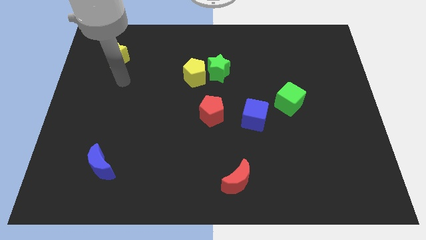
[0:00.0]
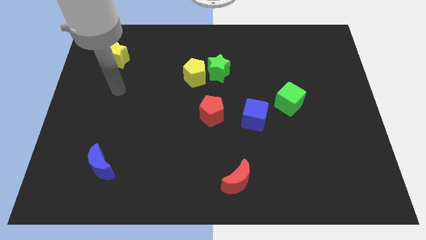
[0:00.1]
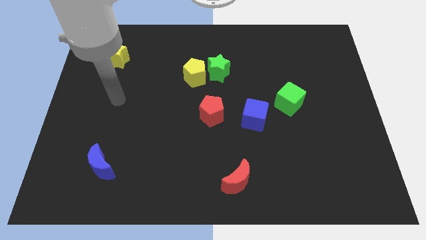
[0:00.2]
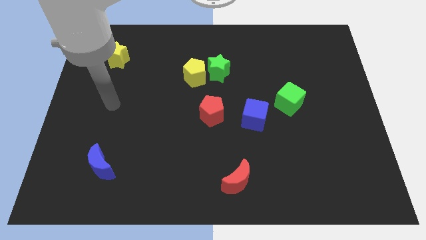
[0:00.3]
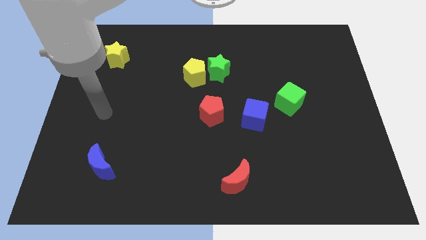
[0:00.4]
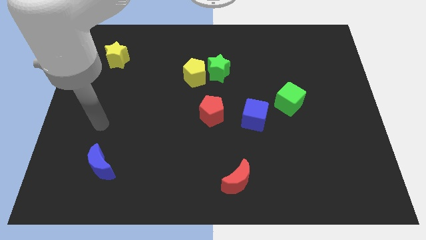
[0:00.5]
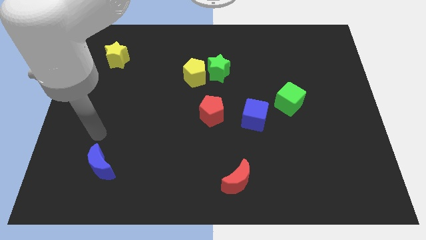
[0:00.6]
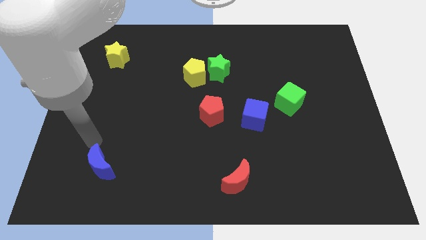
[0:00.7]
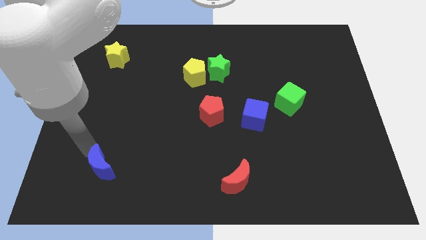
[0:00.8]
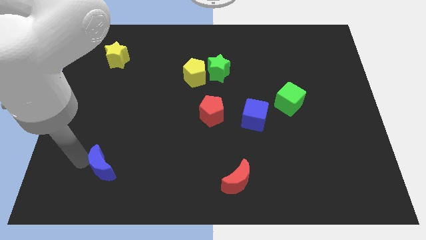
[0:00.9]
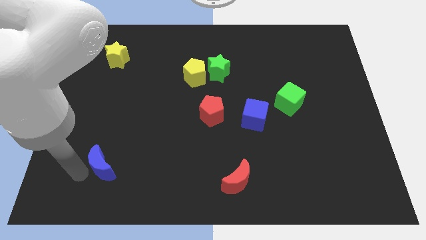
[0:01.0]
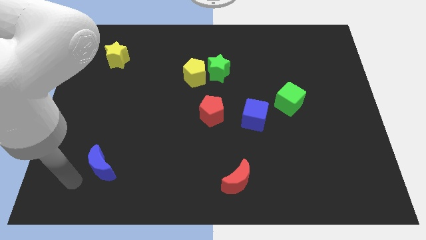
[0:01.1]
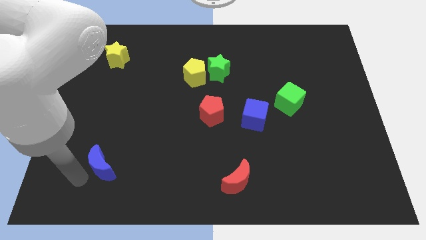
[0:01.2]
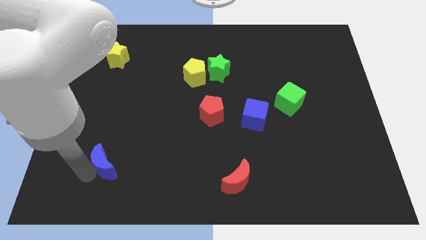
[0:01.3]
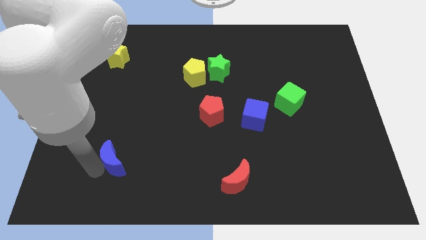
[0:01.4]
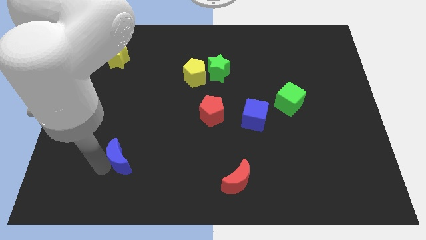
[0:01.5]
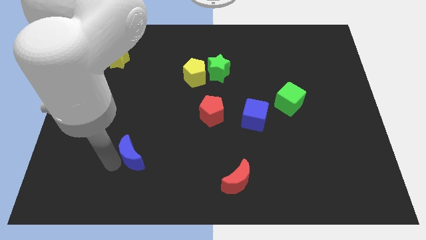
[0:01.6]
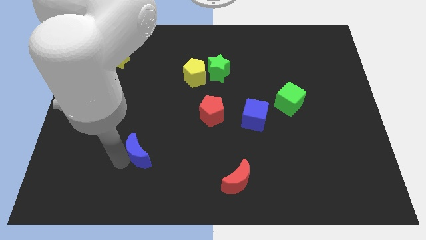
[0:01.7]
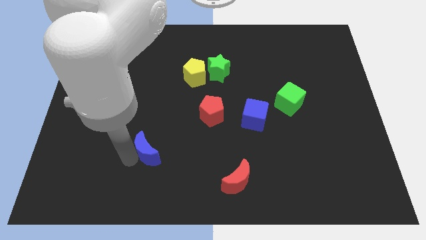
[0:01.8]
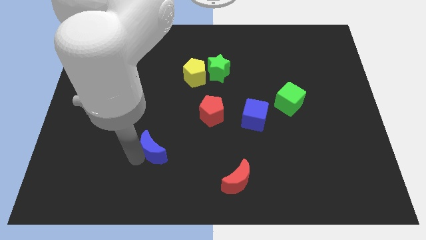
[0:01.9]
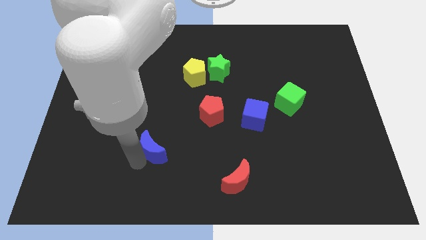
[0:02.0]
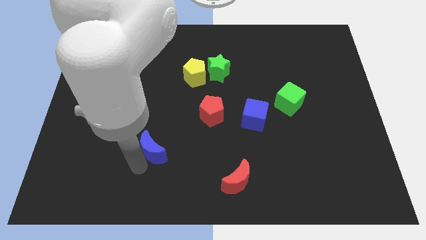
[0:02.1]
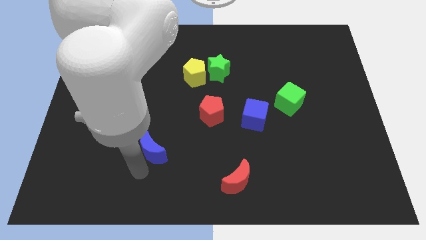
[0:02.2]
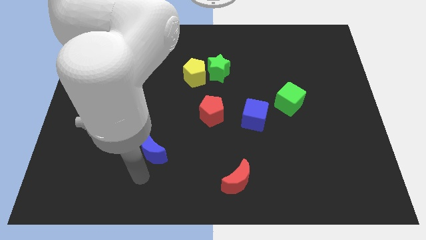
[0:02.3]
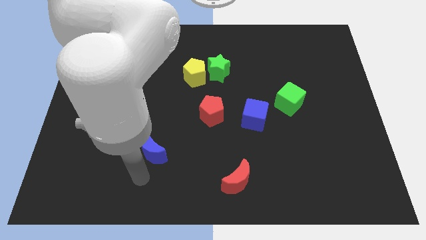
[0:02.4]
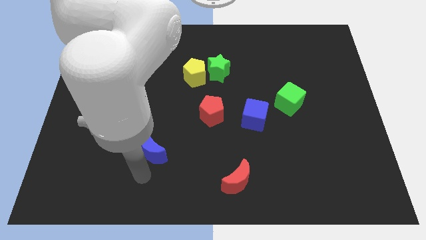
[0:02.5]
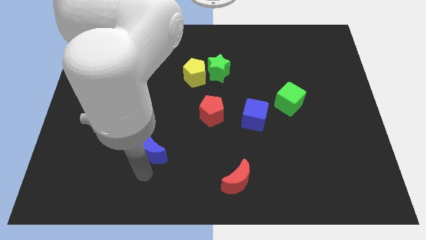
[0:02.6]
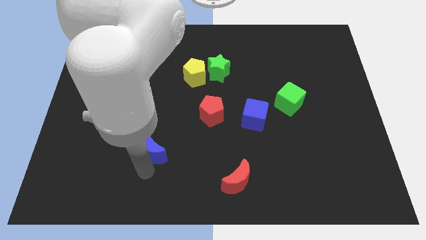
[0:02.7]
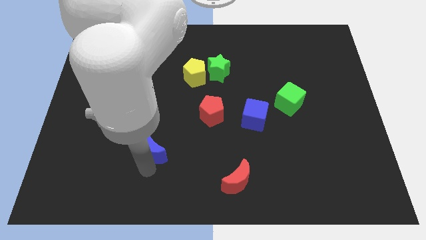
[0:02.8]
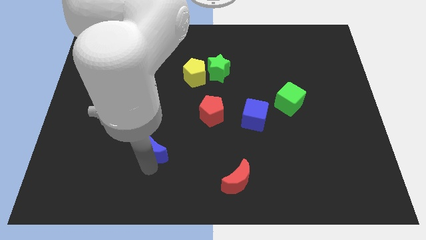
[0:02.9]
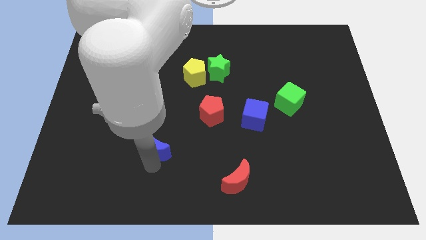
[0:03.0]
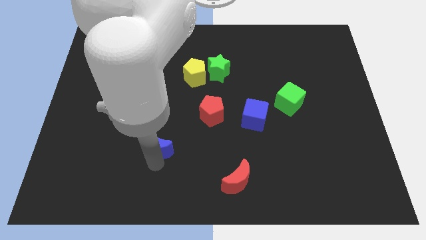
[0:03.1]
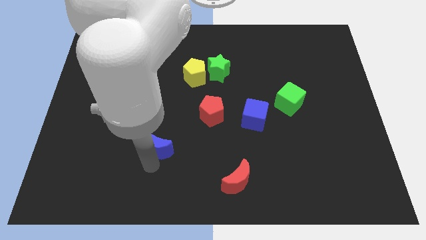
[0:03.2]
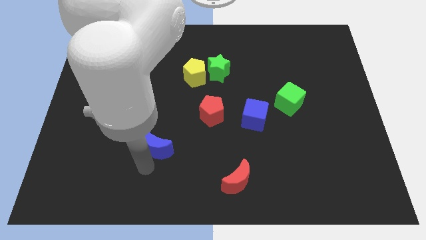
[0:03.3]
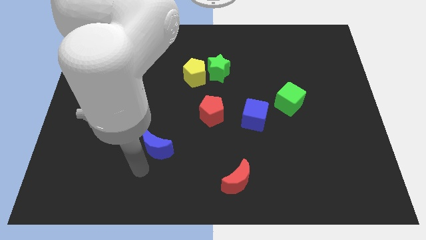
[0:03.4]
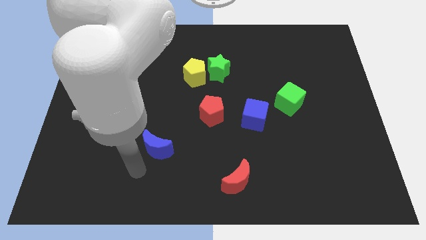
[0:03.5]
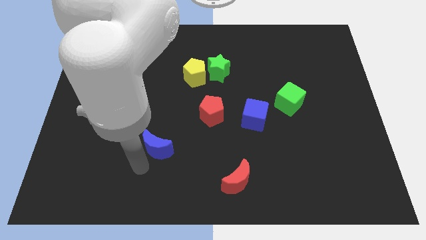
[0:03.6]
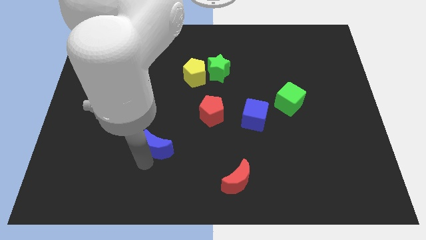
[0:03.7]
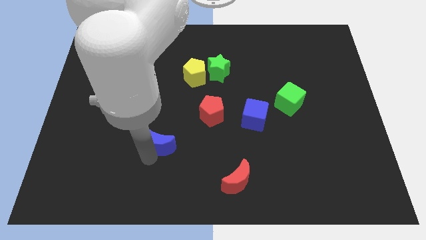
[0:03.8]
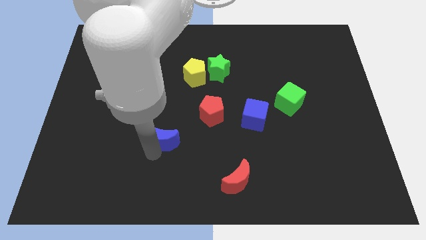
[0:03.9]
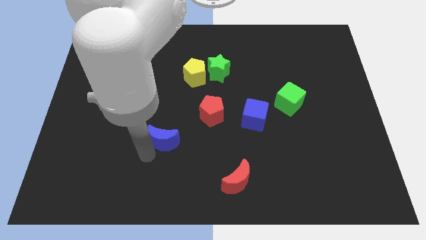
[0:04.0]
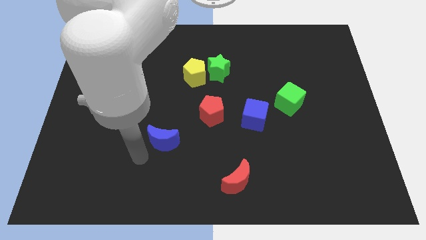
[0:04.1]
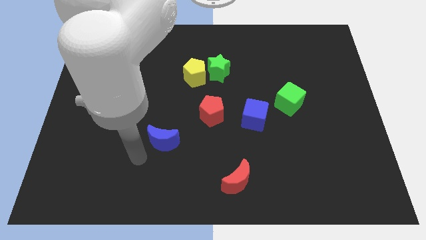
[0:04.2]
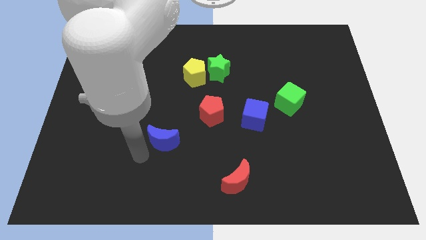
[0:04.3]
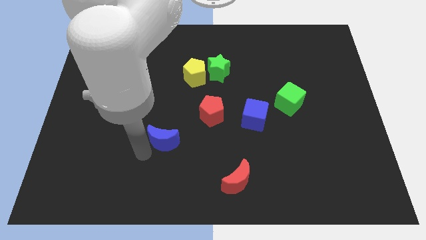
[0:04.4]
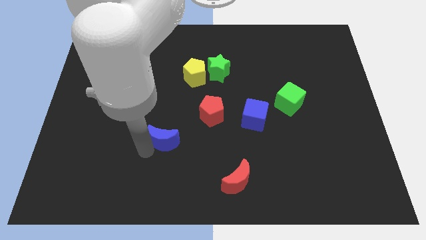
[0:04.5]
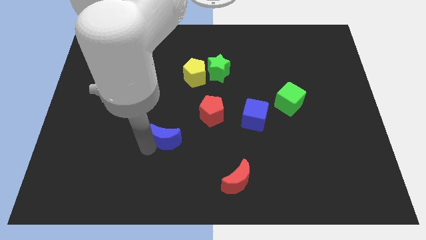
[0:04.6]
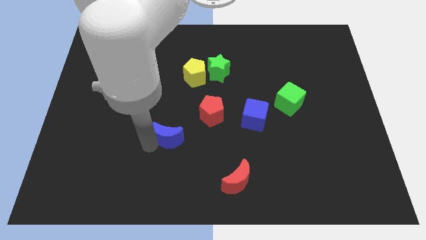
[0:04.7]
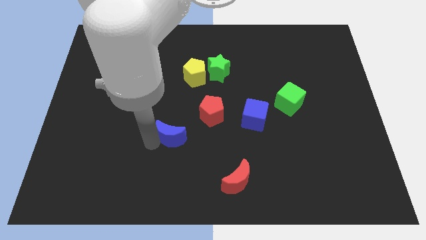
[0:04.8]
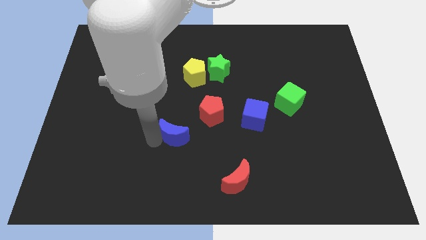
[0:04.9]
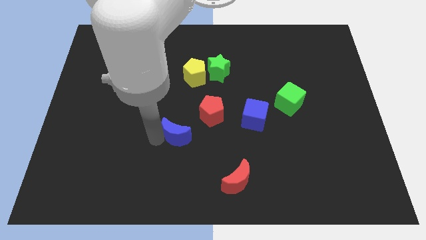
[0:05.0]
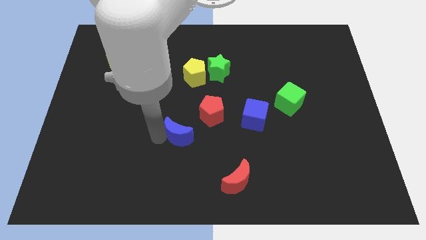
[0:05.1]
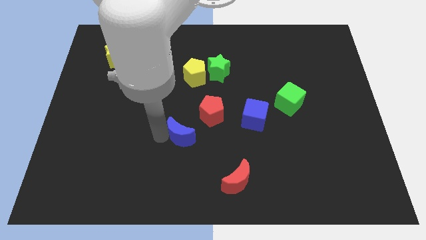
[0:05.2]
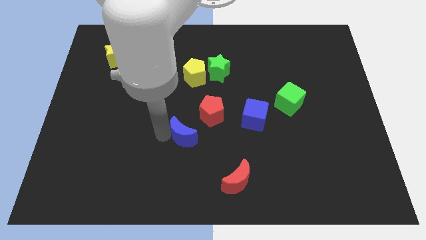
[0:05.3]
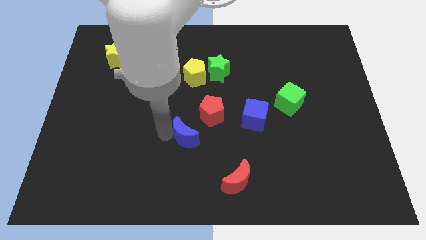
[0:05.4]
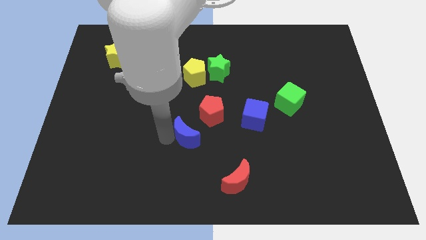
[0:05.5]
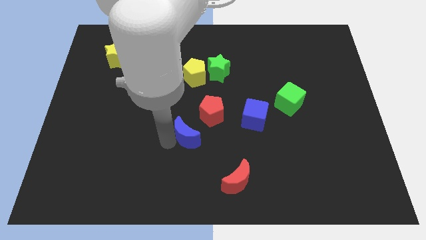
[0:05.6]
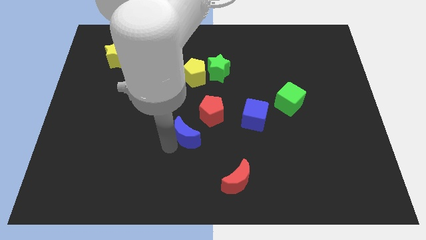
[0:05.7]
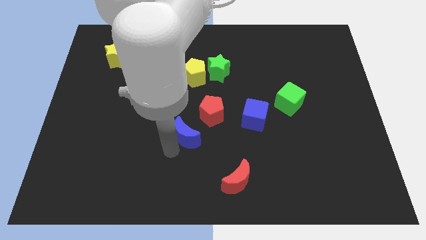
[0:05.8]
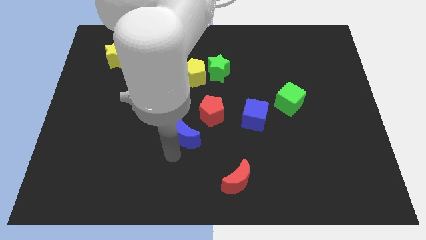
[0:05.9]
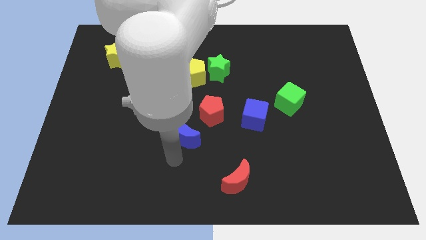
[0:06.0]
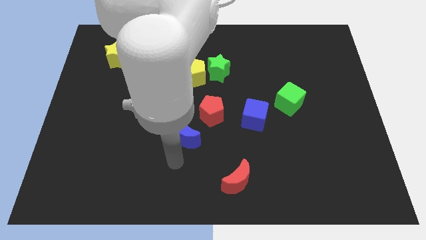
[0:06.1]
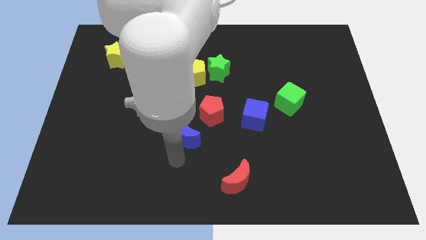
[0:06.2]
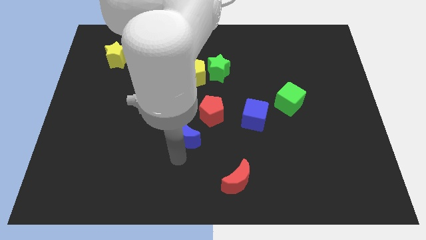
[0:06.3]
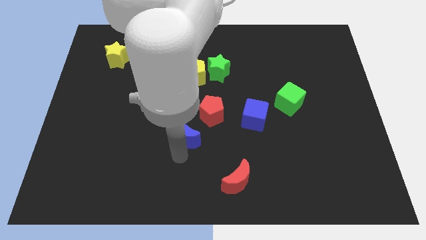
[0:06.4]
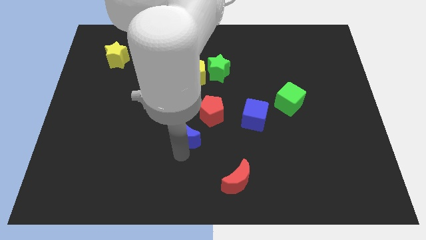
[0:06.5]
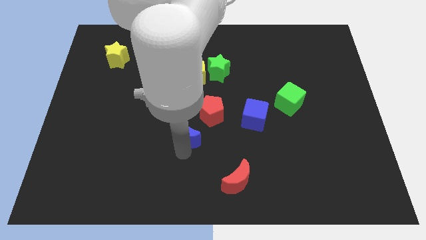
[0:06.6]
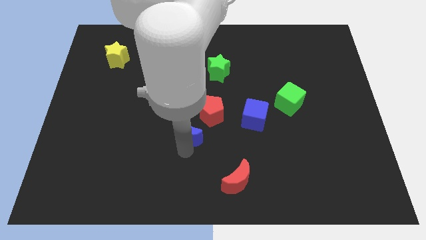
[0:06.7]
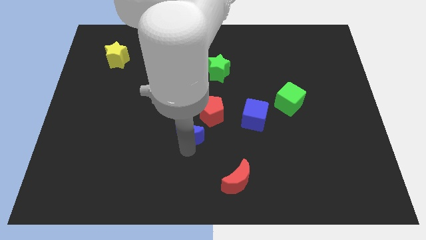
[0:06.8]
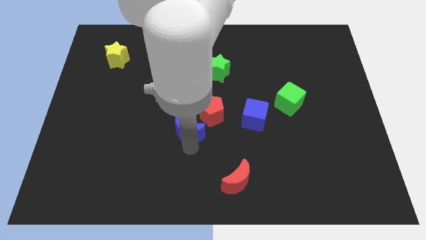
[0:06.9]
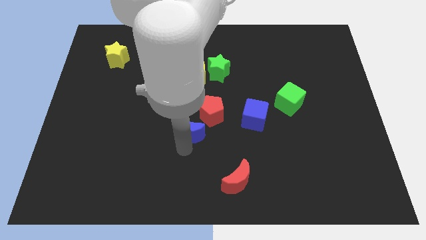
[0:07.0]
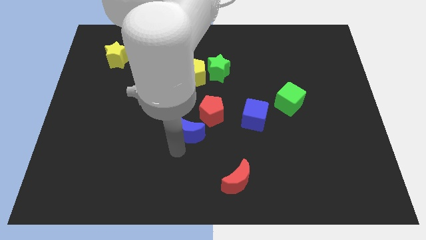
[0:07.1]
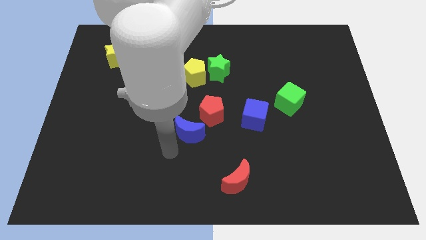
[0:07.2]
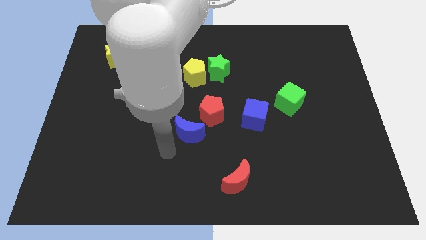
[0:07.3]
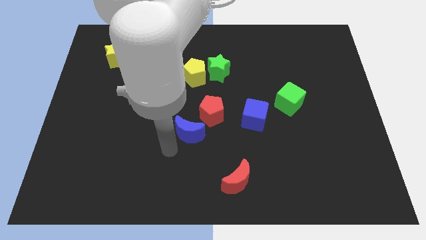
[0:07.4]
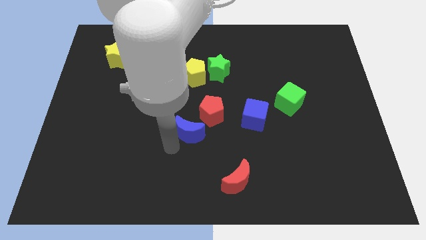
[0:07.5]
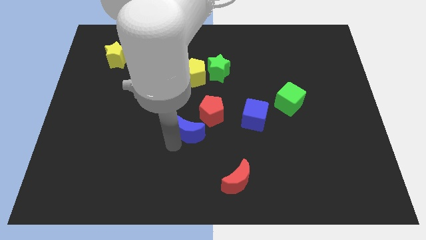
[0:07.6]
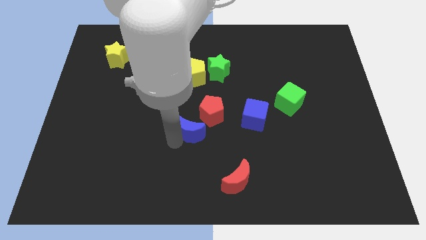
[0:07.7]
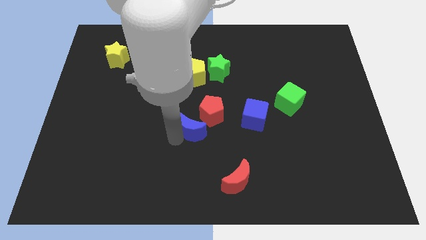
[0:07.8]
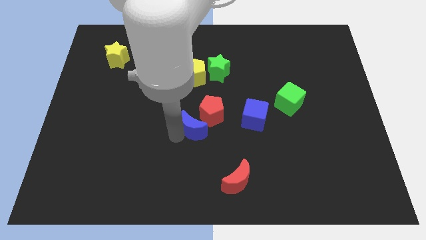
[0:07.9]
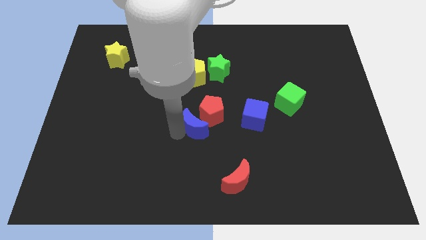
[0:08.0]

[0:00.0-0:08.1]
put the blue moon next to the red pentagon
